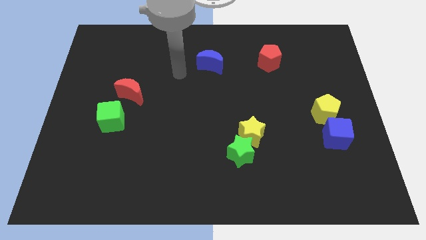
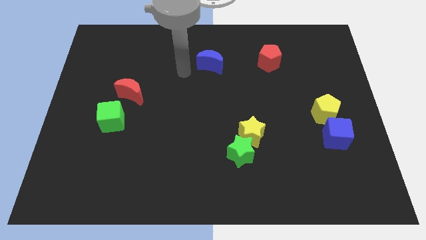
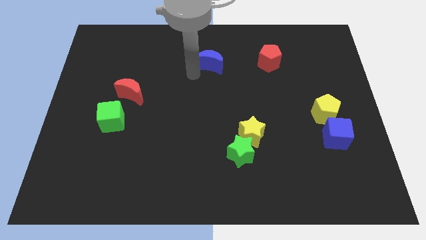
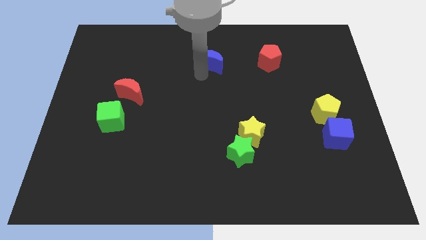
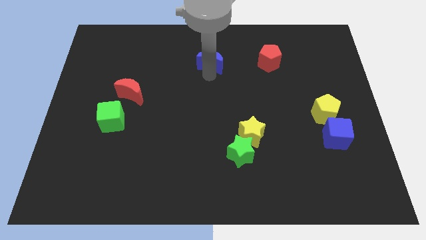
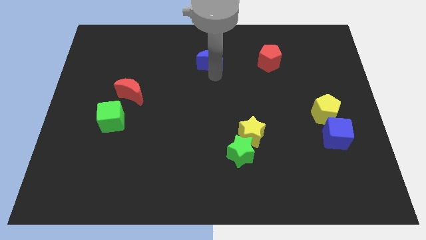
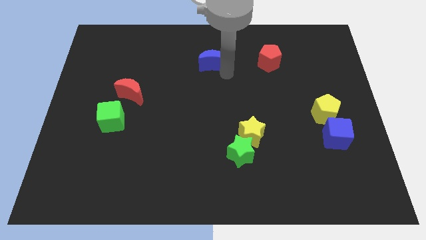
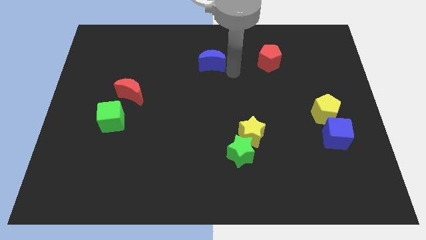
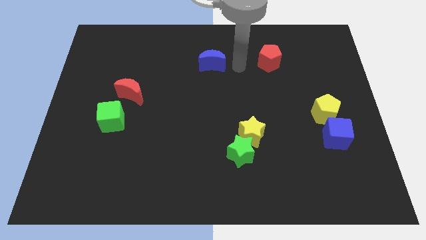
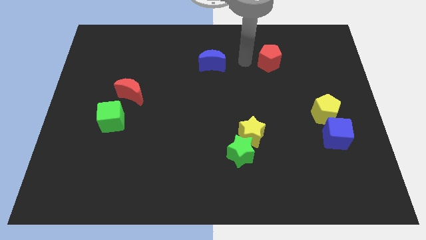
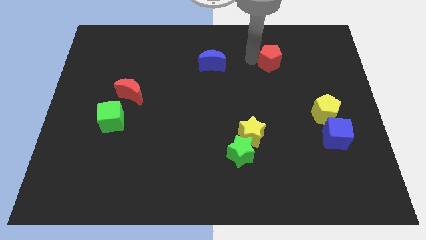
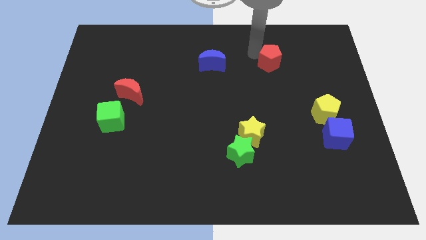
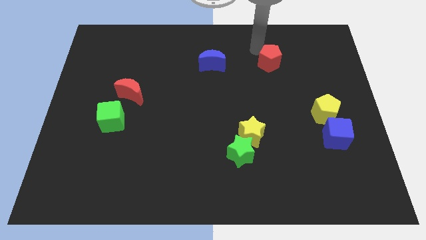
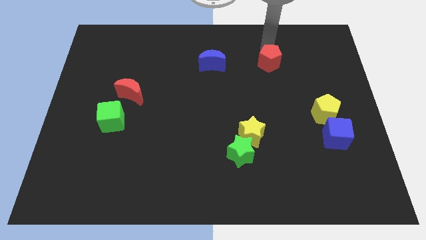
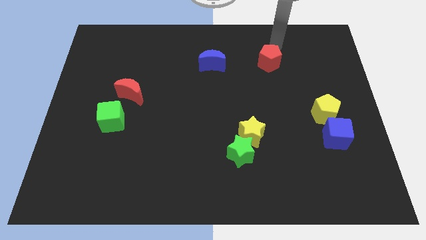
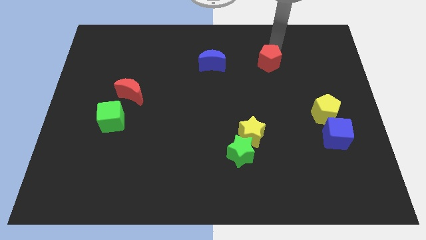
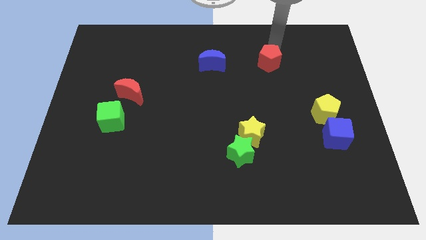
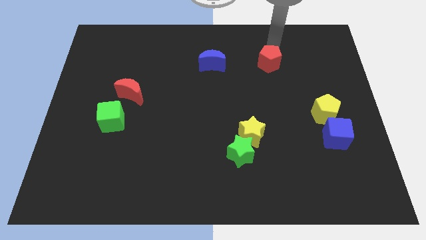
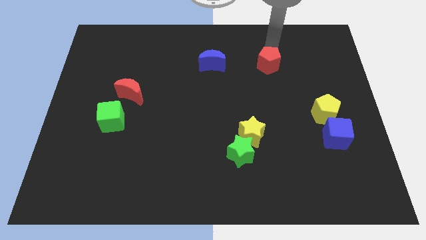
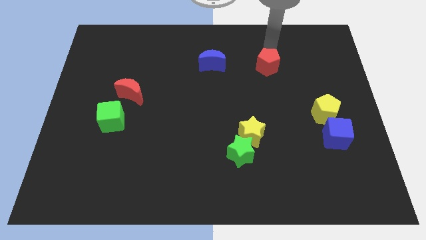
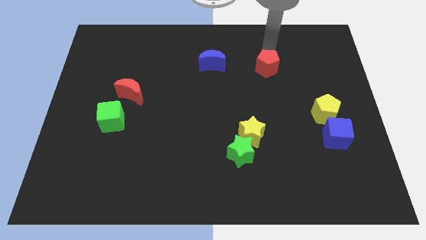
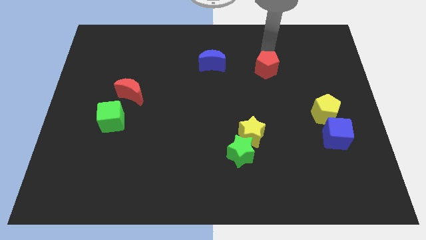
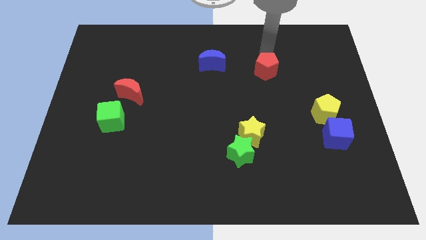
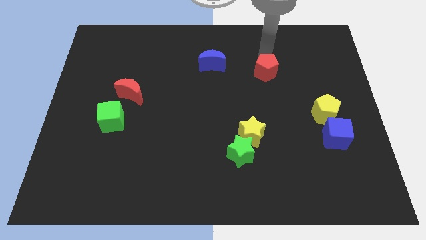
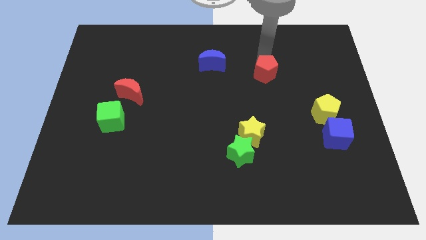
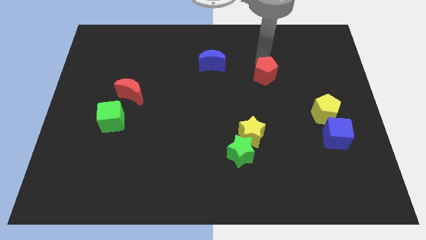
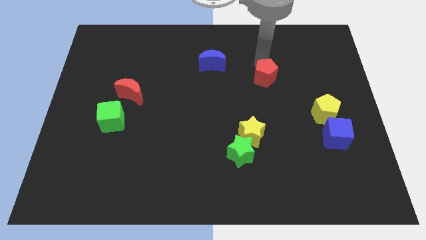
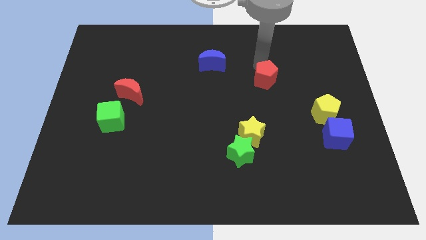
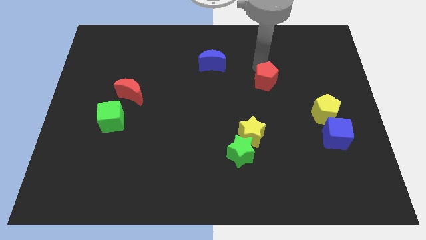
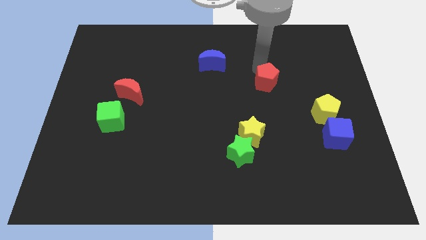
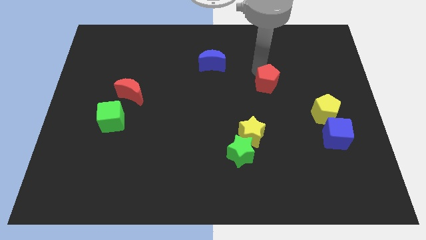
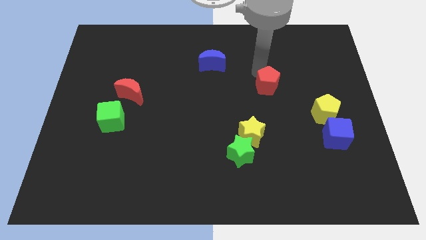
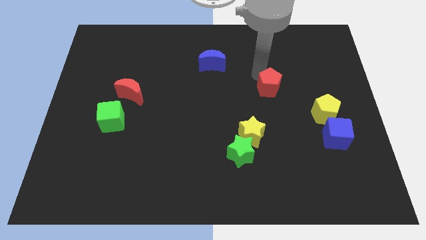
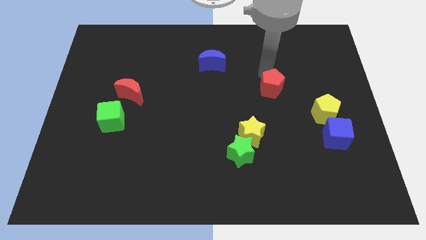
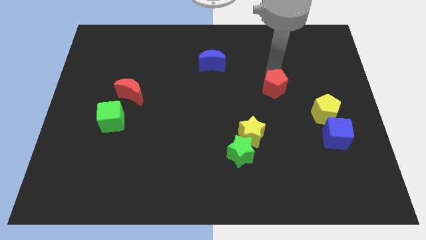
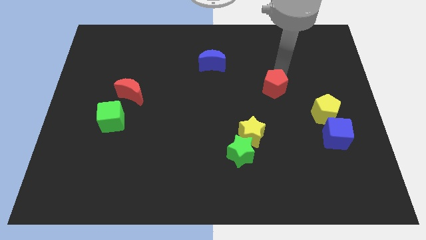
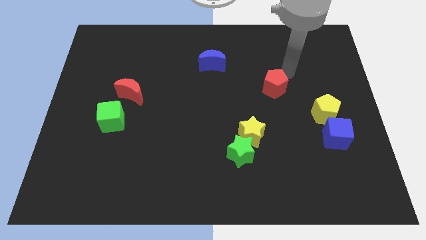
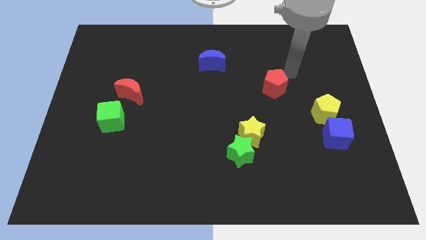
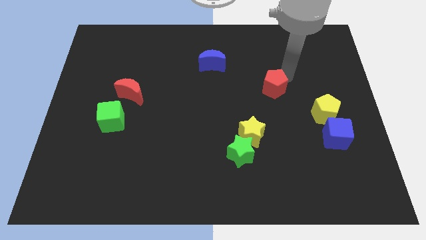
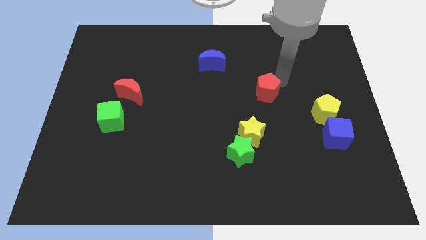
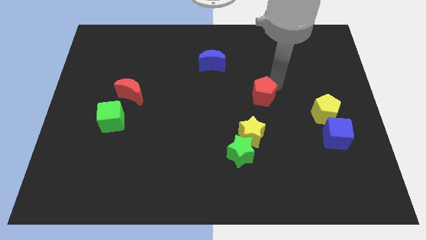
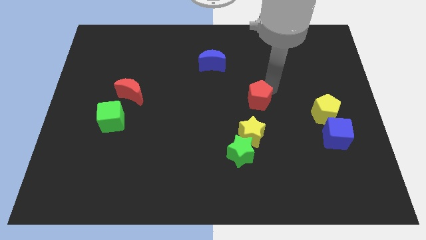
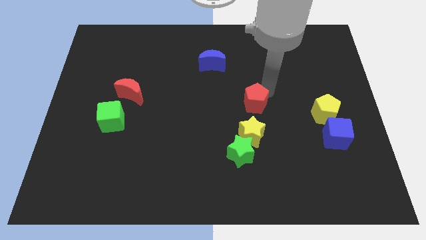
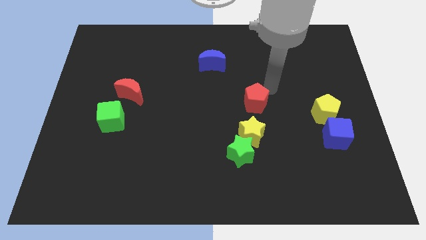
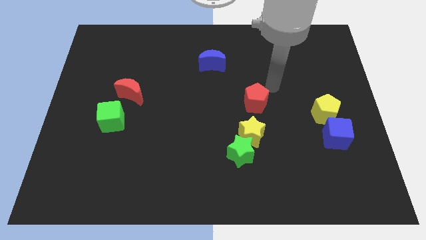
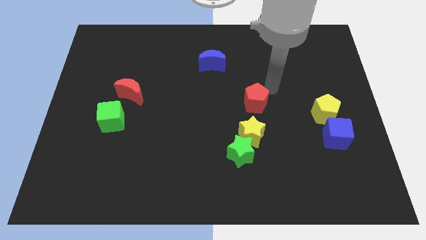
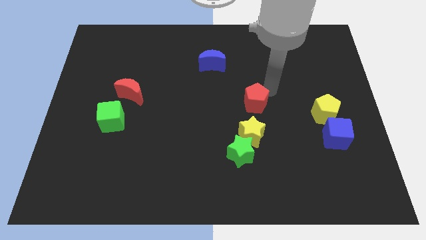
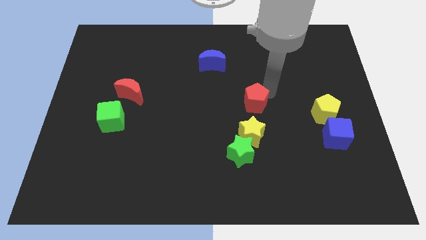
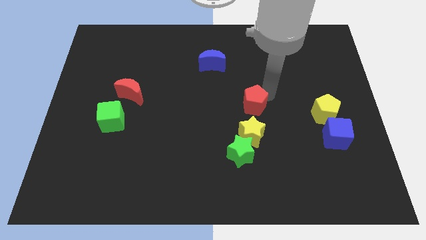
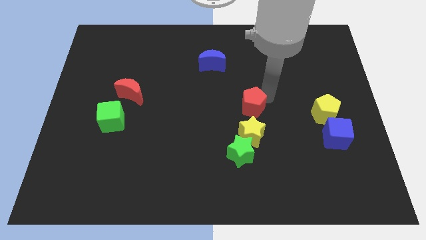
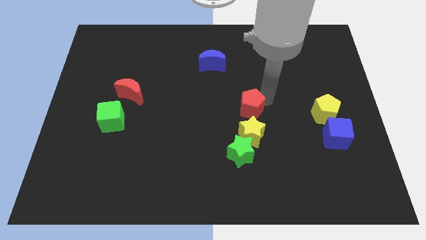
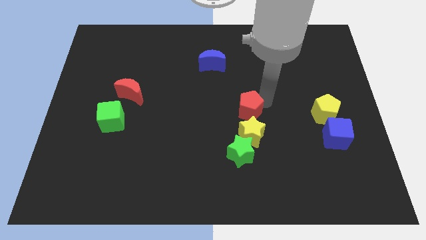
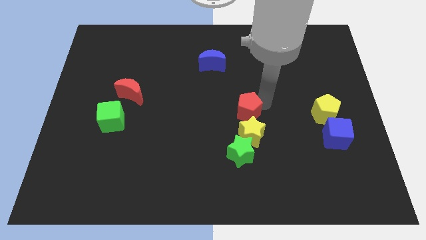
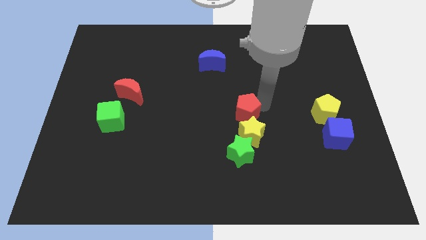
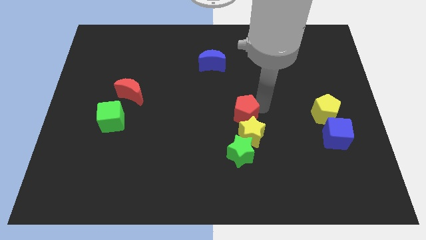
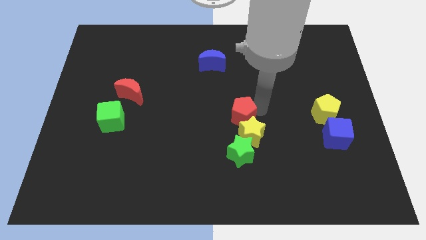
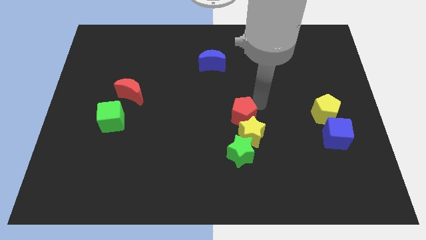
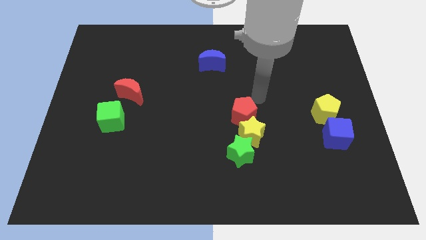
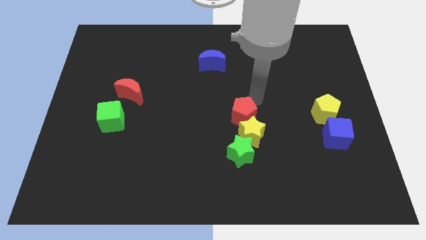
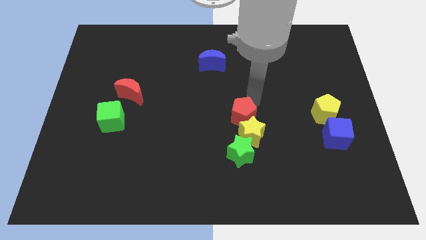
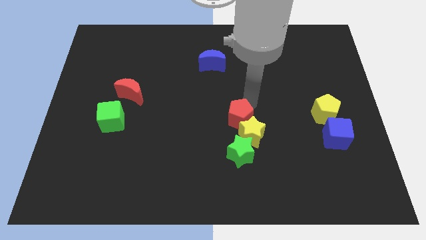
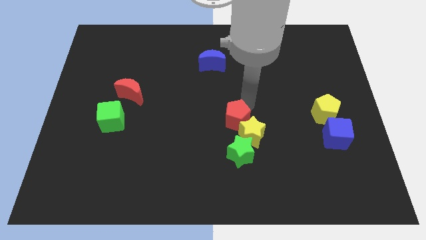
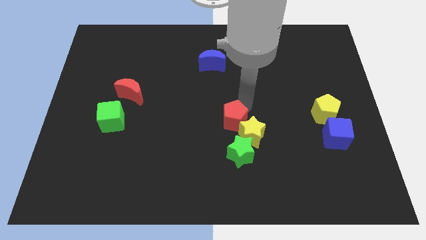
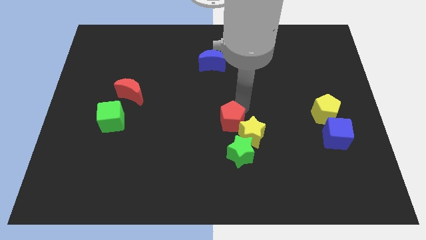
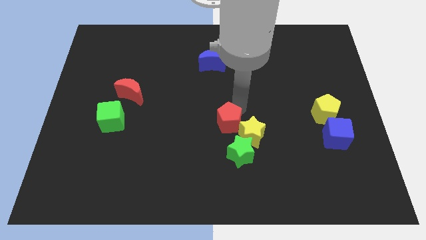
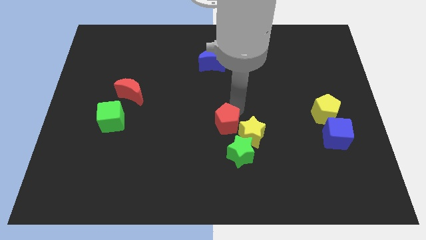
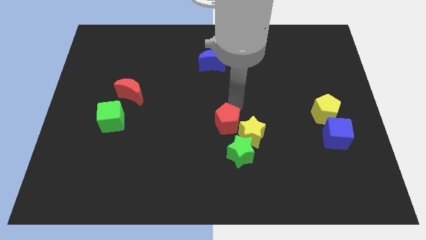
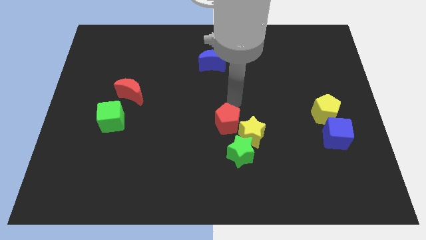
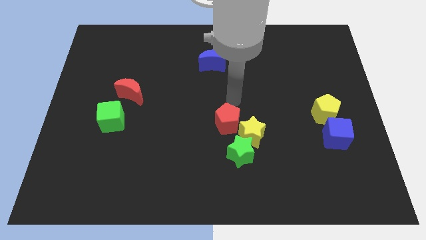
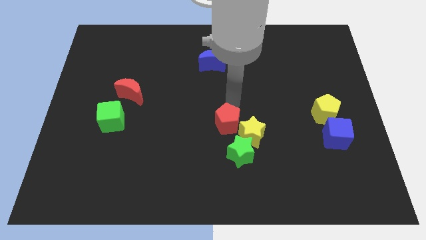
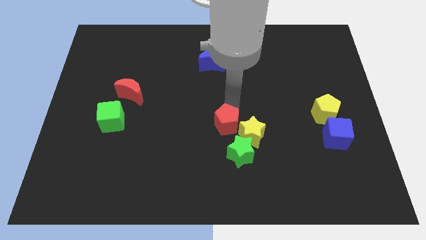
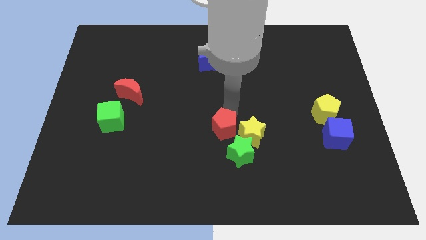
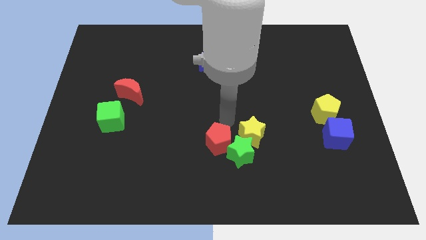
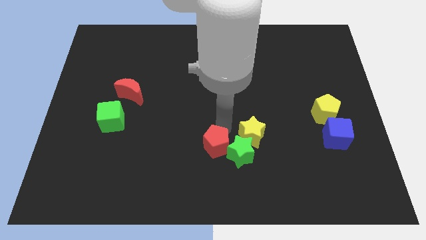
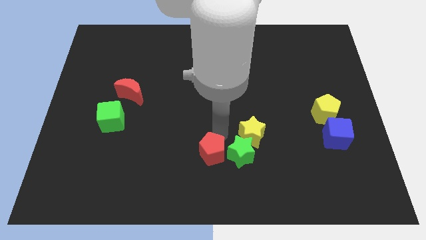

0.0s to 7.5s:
move the red pentagon diagonally down and to the left of the green star
